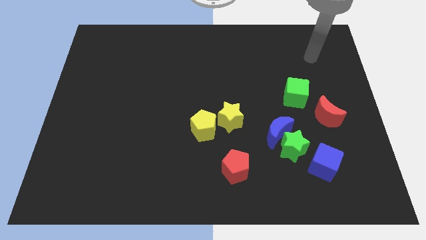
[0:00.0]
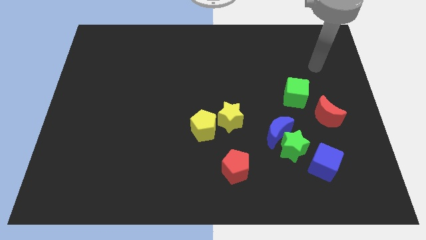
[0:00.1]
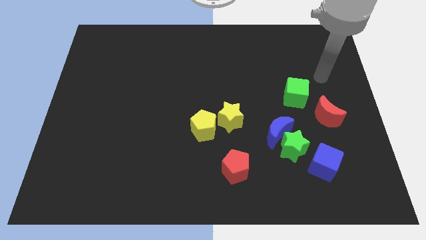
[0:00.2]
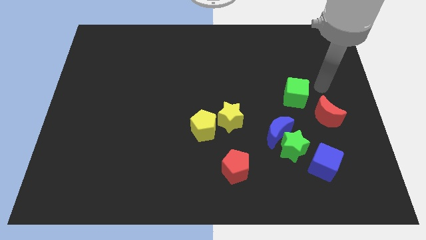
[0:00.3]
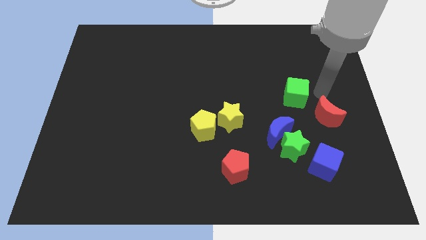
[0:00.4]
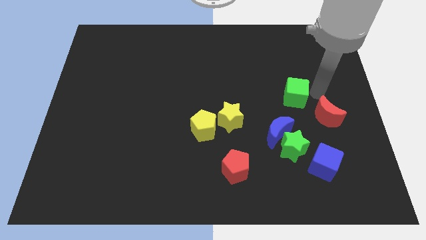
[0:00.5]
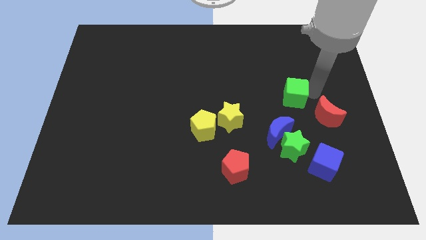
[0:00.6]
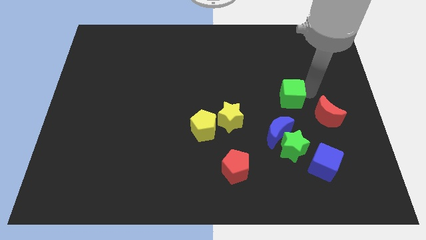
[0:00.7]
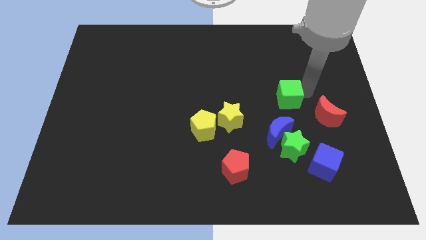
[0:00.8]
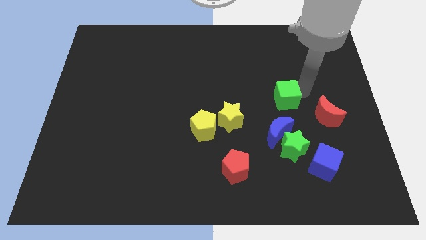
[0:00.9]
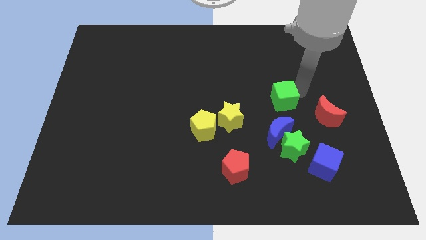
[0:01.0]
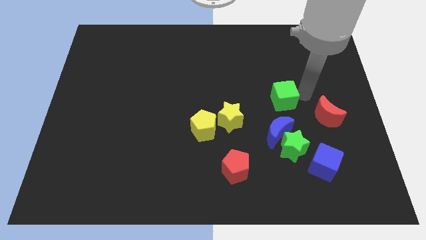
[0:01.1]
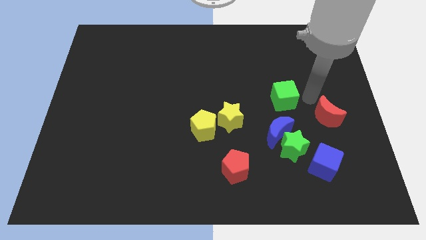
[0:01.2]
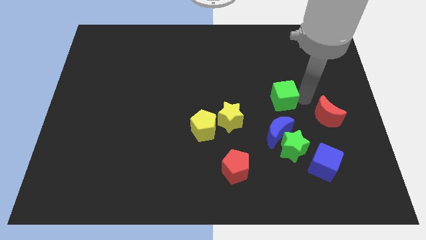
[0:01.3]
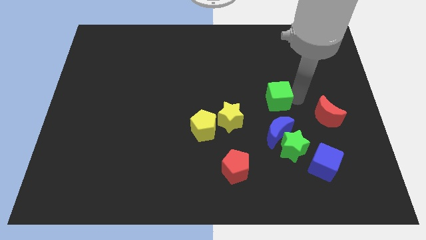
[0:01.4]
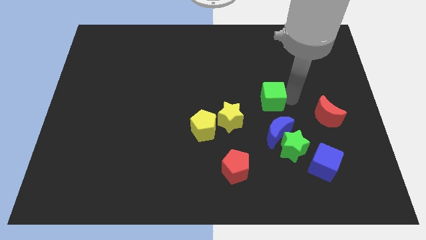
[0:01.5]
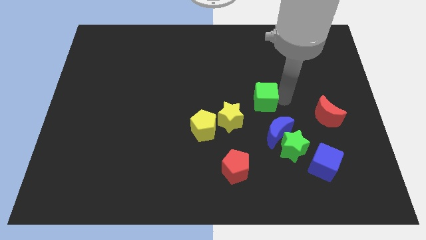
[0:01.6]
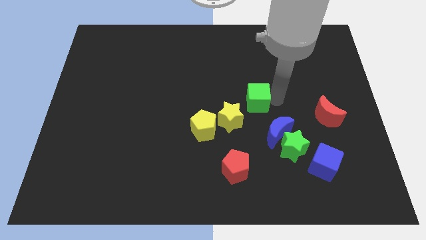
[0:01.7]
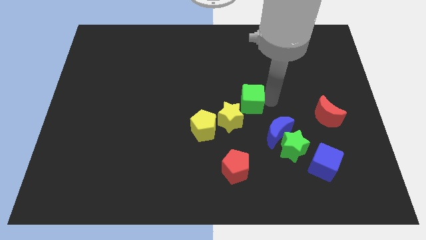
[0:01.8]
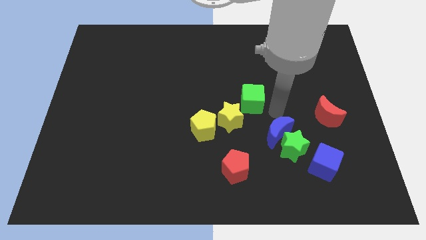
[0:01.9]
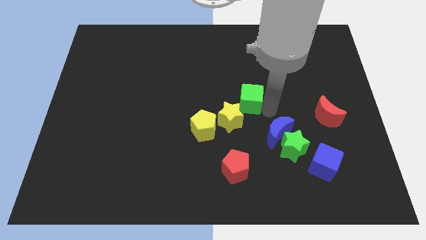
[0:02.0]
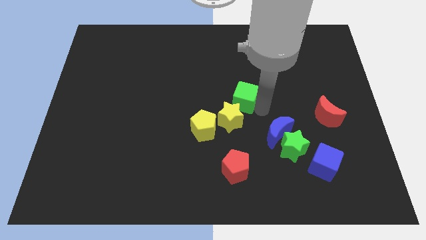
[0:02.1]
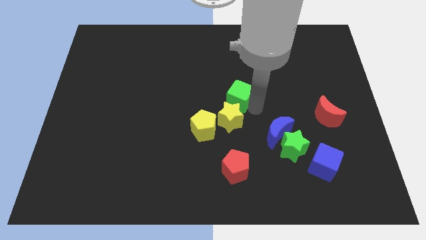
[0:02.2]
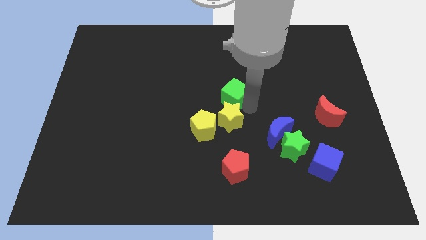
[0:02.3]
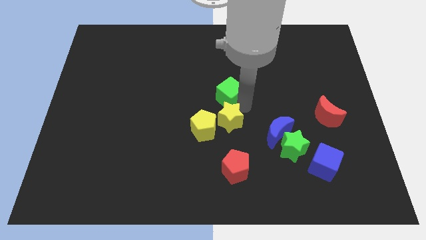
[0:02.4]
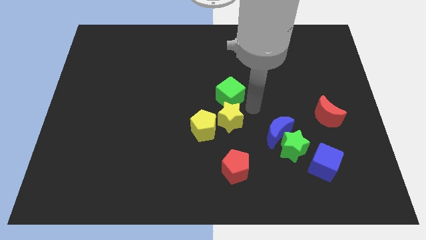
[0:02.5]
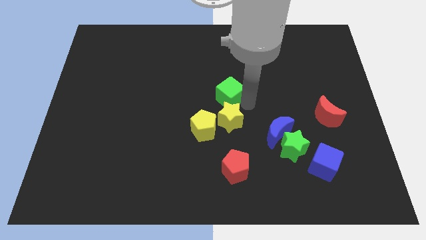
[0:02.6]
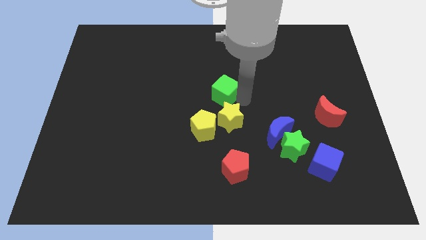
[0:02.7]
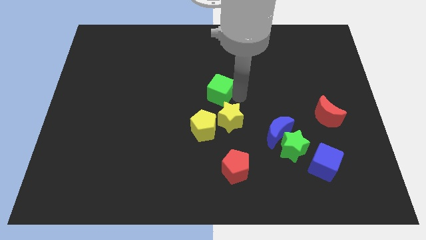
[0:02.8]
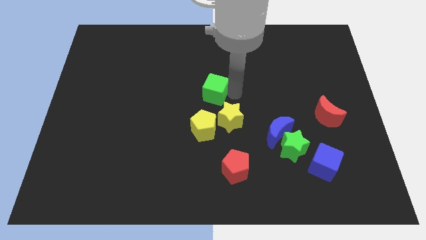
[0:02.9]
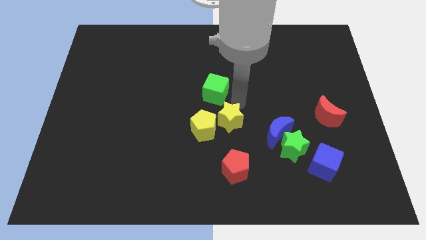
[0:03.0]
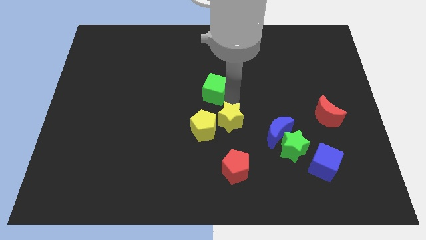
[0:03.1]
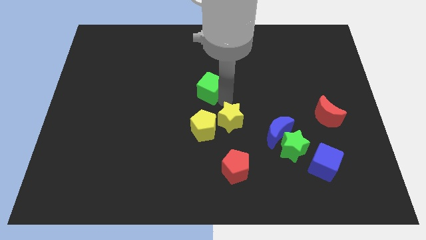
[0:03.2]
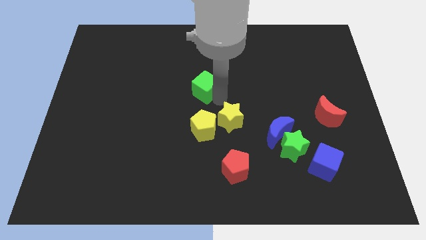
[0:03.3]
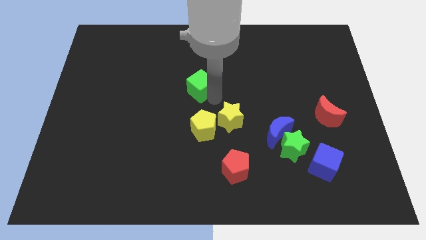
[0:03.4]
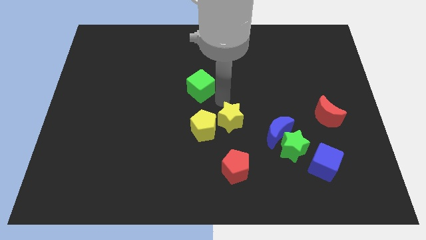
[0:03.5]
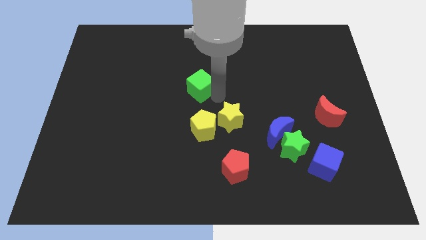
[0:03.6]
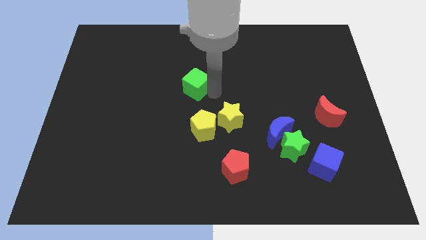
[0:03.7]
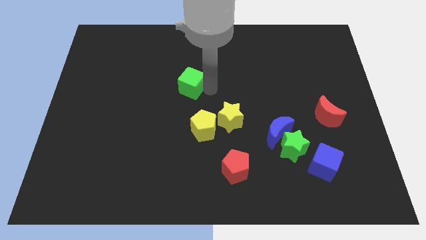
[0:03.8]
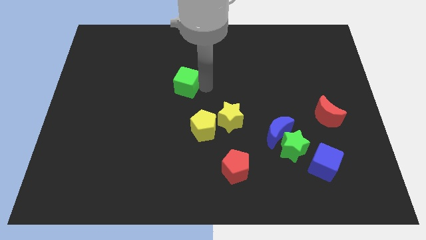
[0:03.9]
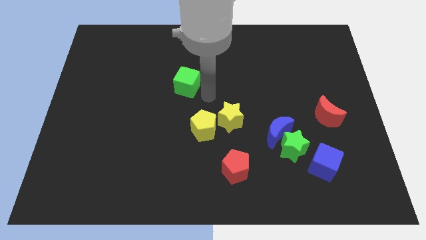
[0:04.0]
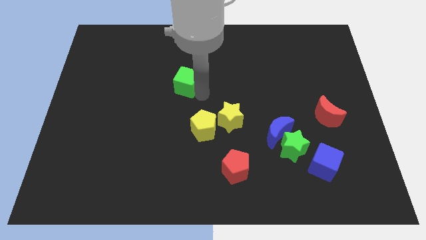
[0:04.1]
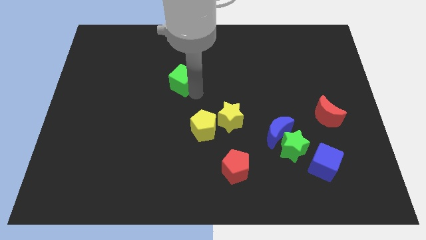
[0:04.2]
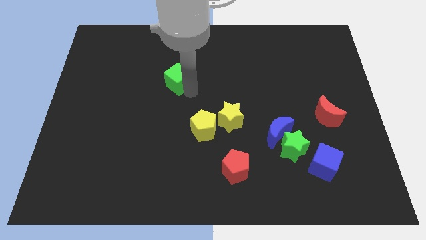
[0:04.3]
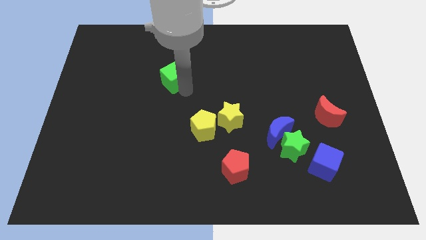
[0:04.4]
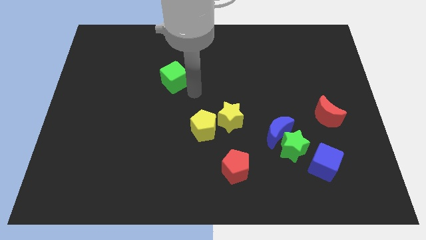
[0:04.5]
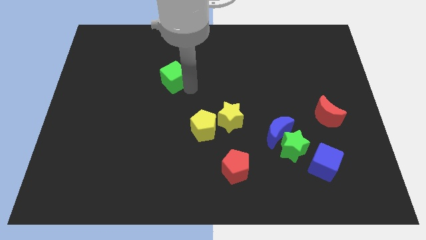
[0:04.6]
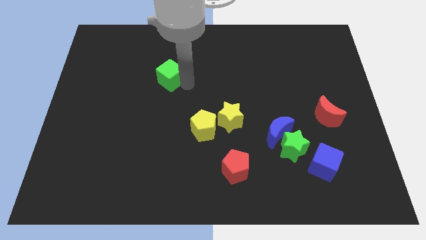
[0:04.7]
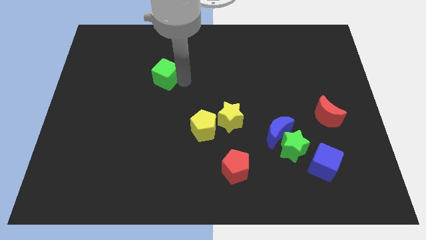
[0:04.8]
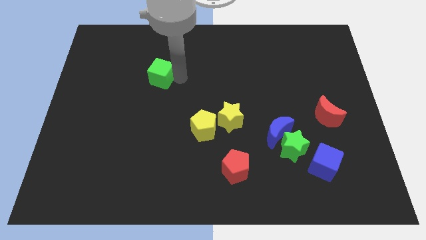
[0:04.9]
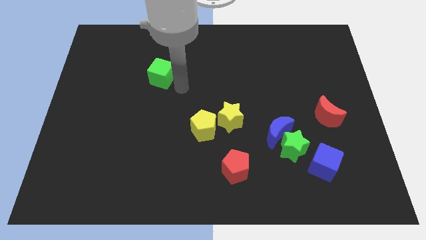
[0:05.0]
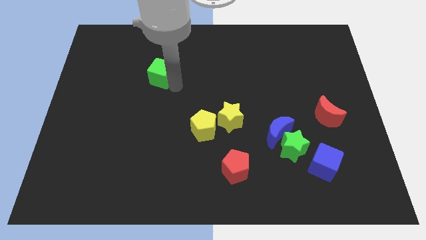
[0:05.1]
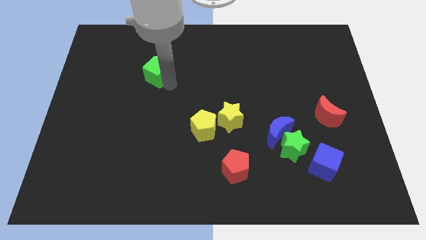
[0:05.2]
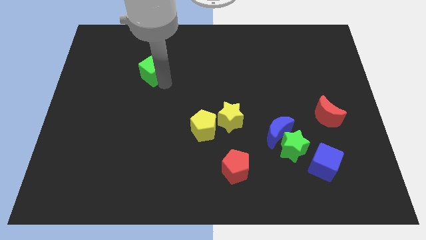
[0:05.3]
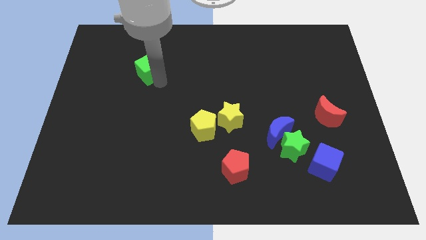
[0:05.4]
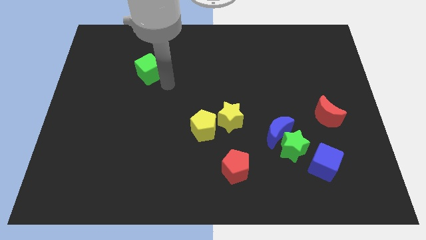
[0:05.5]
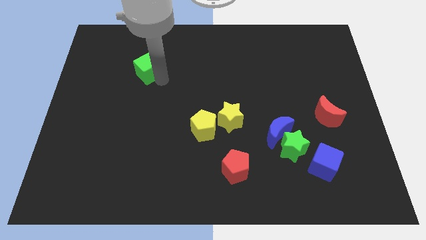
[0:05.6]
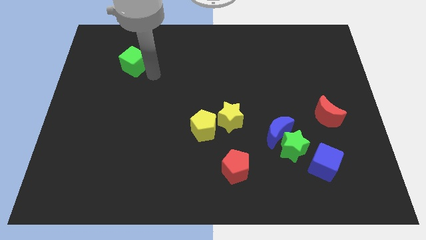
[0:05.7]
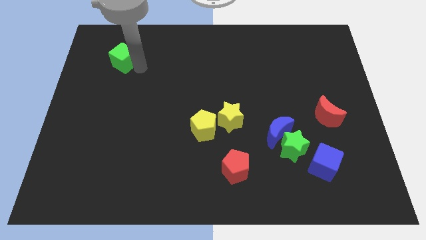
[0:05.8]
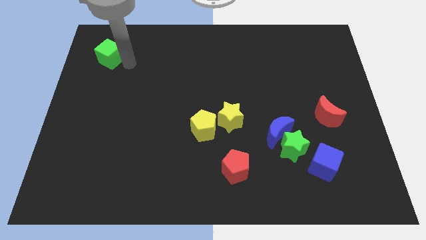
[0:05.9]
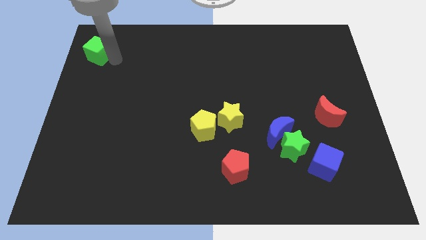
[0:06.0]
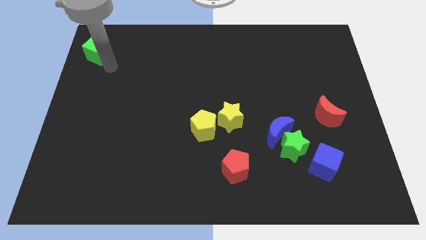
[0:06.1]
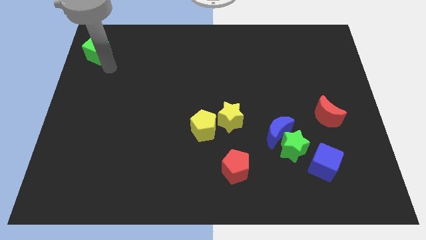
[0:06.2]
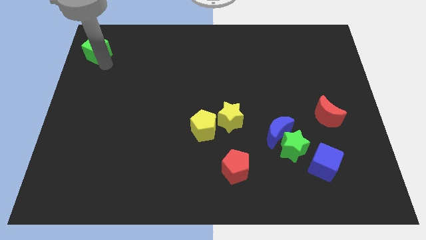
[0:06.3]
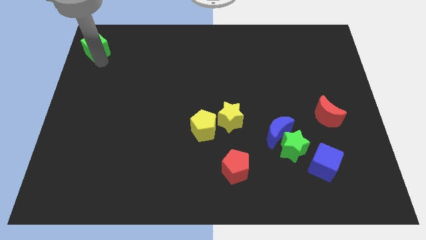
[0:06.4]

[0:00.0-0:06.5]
slide the green cube to the top left of the board

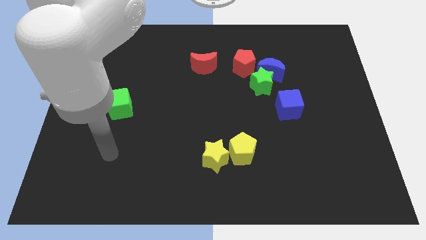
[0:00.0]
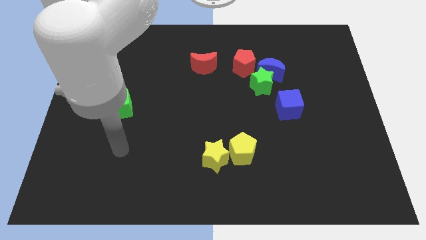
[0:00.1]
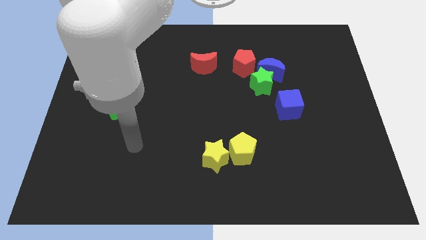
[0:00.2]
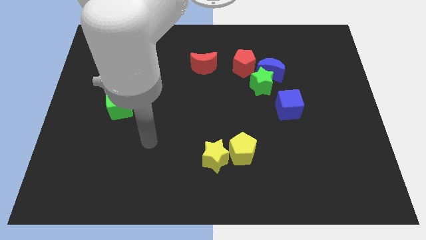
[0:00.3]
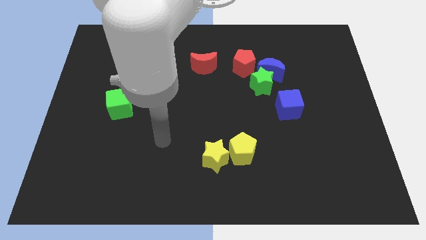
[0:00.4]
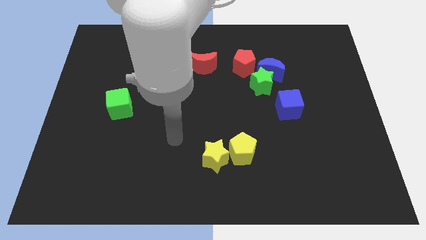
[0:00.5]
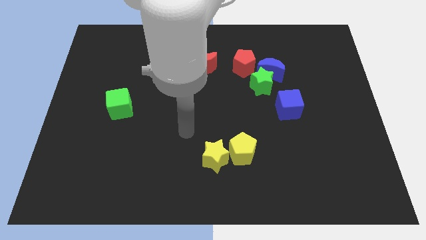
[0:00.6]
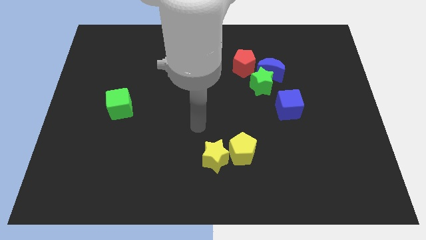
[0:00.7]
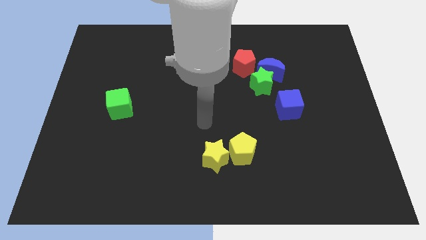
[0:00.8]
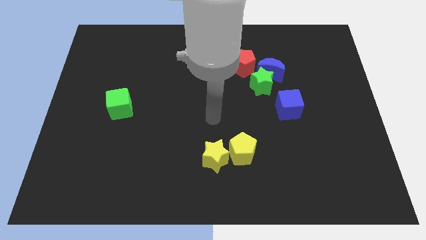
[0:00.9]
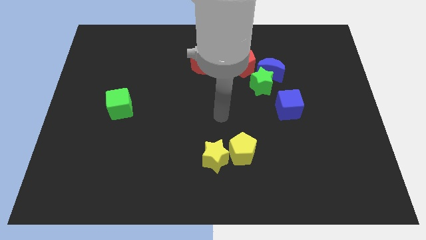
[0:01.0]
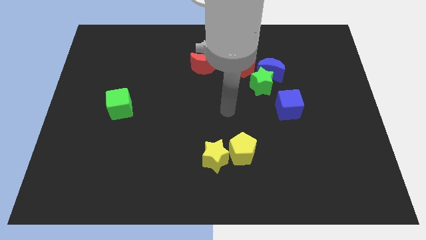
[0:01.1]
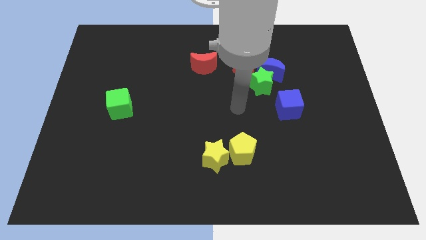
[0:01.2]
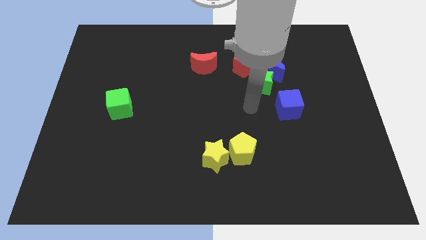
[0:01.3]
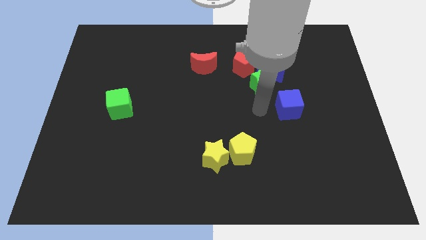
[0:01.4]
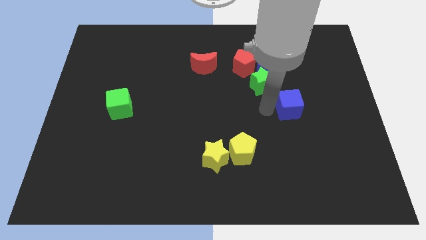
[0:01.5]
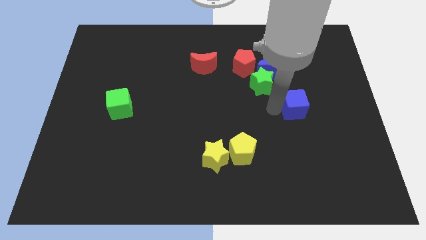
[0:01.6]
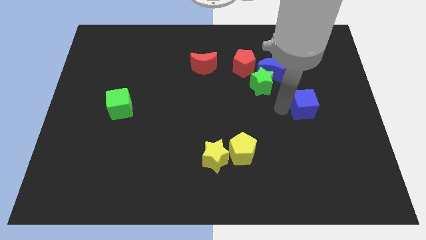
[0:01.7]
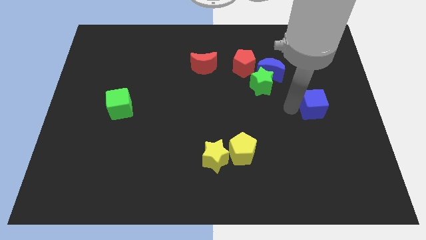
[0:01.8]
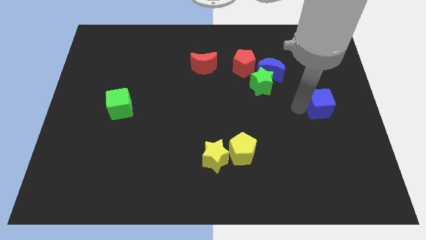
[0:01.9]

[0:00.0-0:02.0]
push the blue cube to the center right
